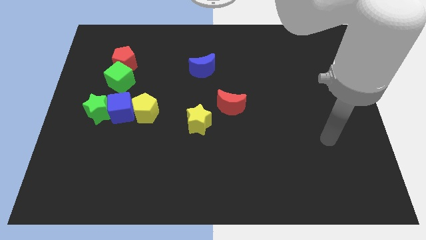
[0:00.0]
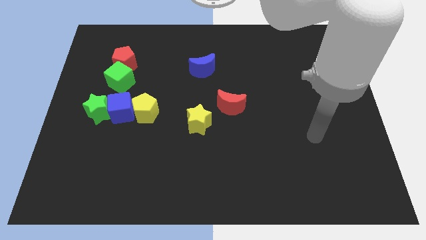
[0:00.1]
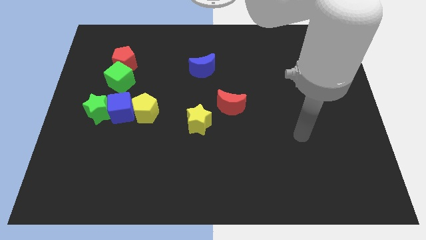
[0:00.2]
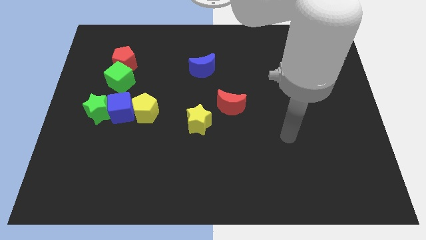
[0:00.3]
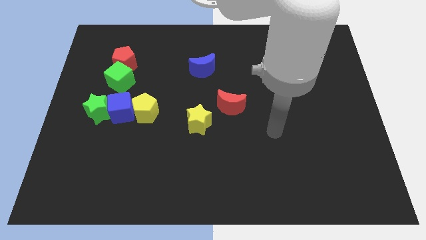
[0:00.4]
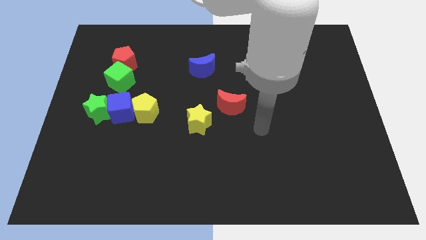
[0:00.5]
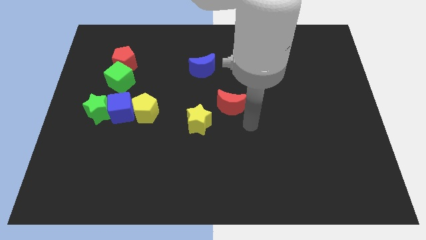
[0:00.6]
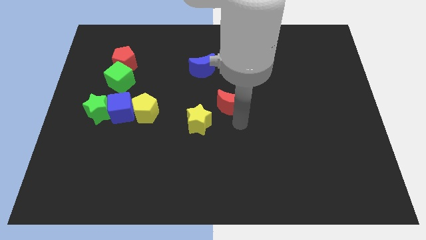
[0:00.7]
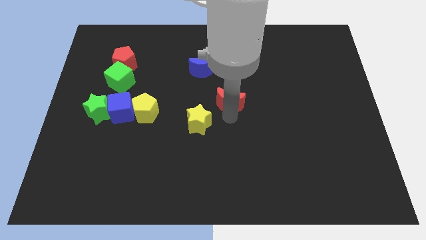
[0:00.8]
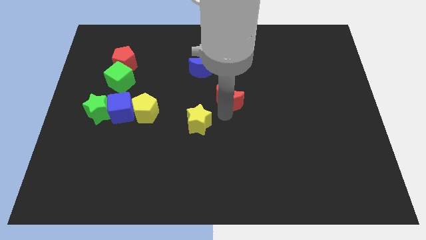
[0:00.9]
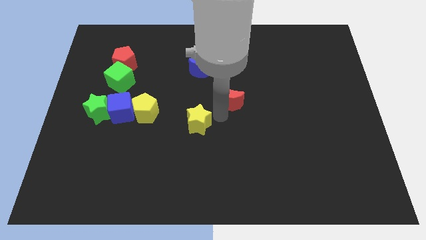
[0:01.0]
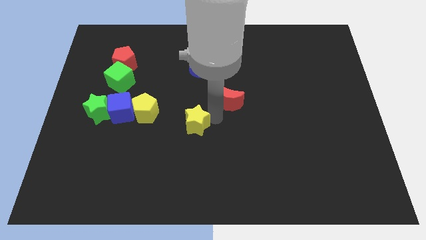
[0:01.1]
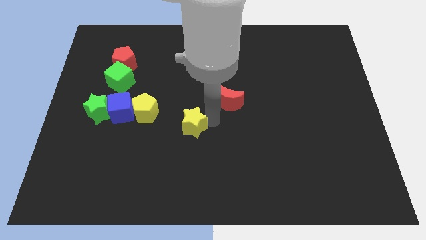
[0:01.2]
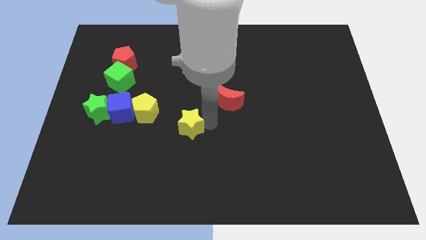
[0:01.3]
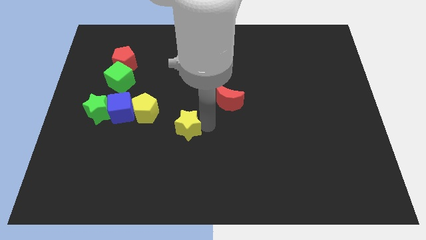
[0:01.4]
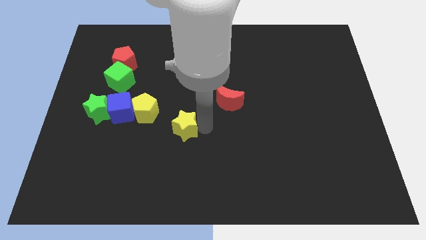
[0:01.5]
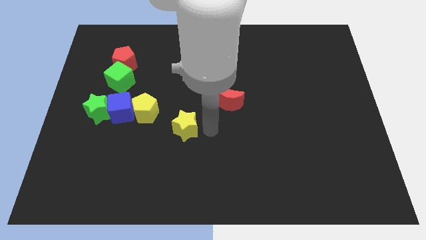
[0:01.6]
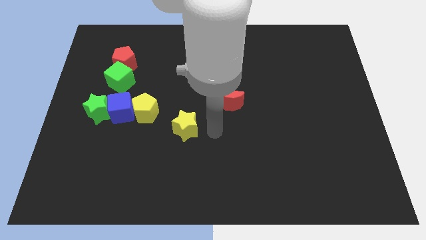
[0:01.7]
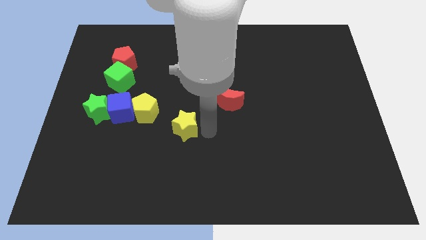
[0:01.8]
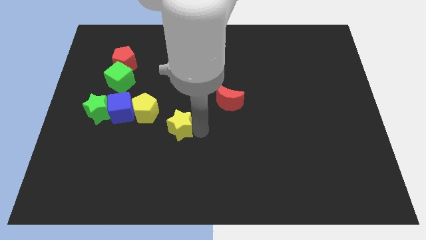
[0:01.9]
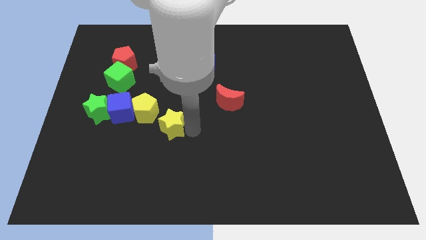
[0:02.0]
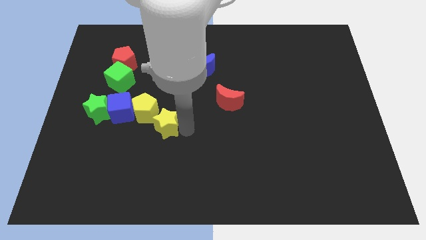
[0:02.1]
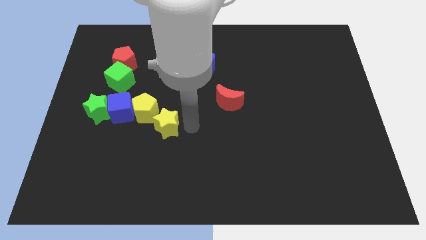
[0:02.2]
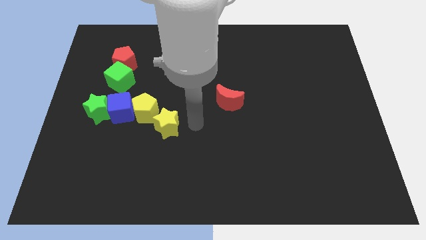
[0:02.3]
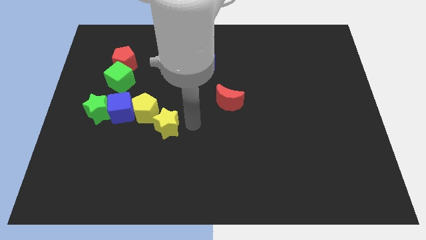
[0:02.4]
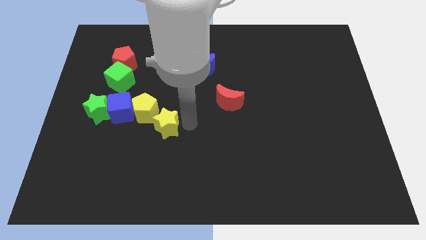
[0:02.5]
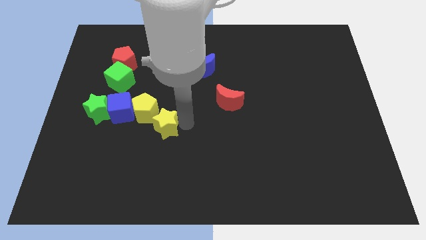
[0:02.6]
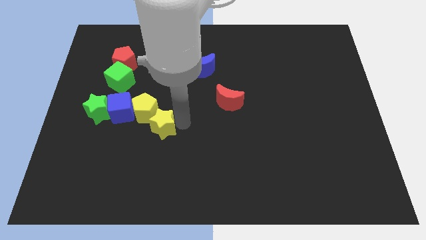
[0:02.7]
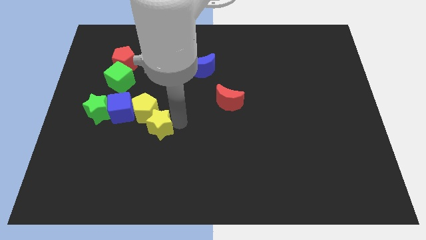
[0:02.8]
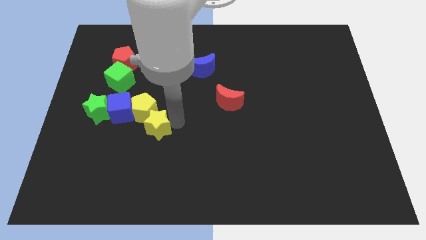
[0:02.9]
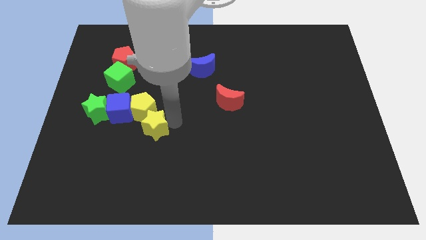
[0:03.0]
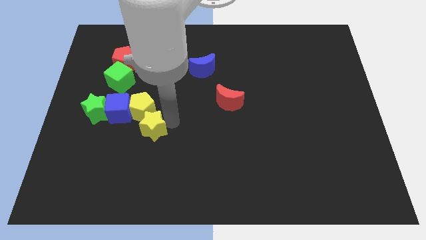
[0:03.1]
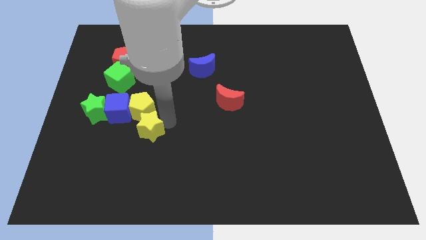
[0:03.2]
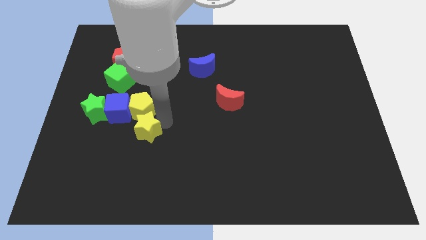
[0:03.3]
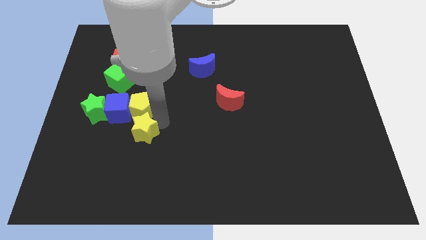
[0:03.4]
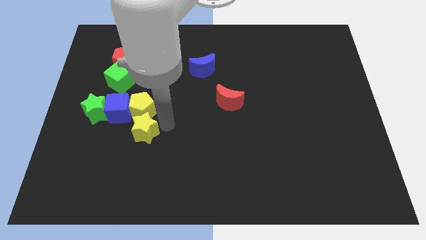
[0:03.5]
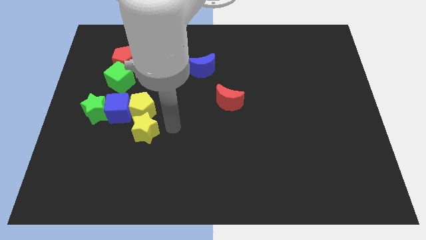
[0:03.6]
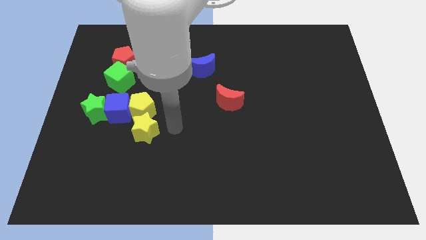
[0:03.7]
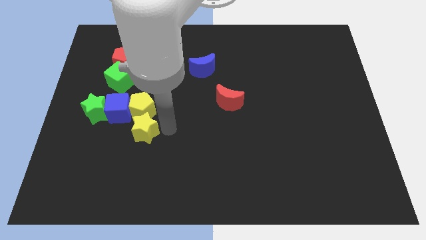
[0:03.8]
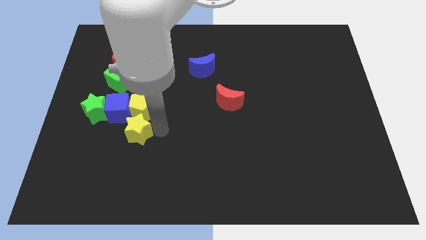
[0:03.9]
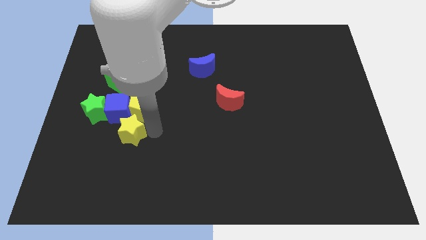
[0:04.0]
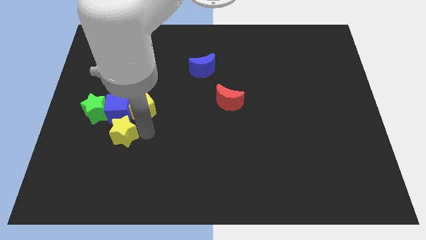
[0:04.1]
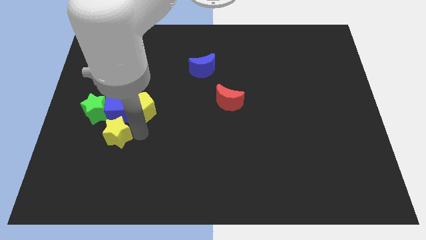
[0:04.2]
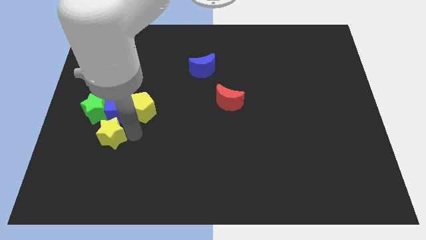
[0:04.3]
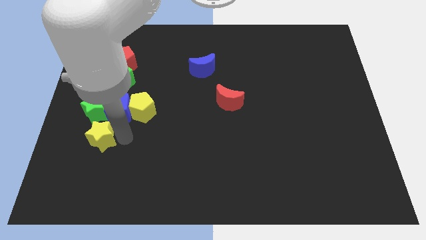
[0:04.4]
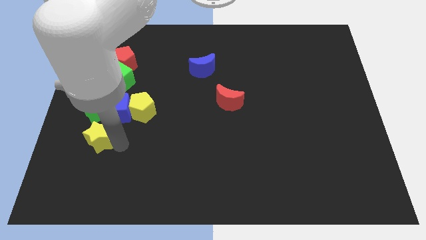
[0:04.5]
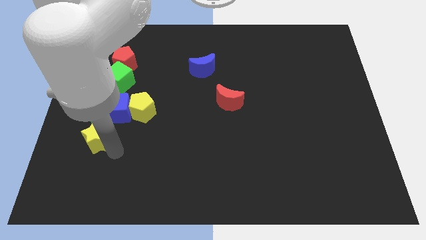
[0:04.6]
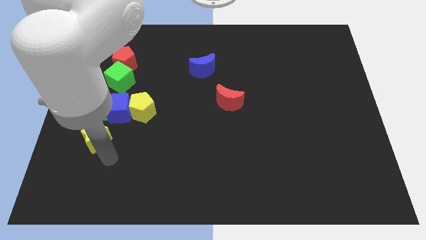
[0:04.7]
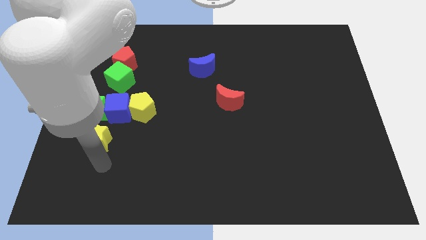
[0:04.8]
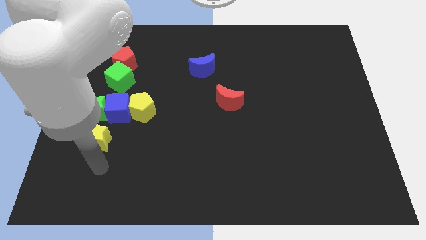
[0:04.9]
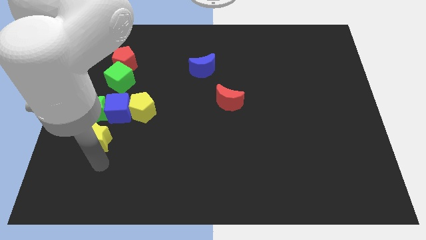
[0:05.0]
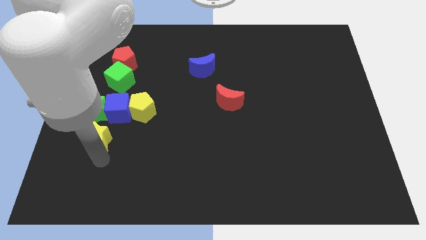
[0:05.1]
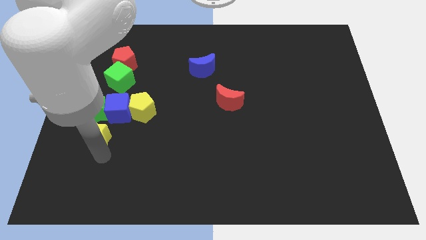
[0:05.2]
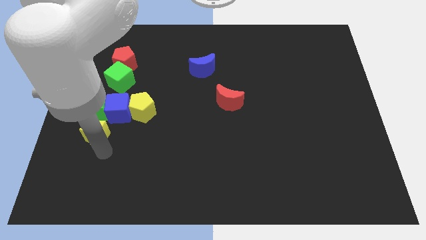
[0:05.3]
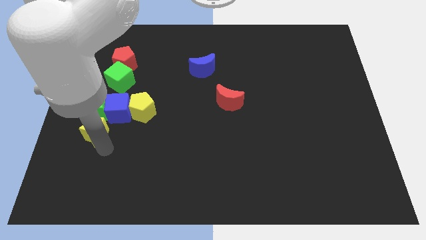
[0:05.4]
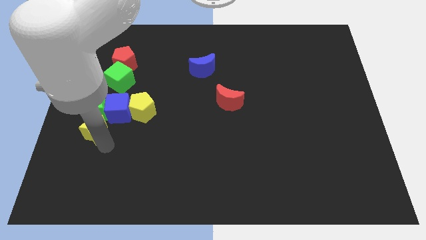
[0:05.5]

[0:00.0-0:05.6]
push the yellow star towards the green star
